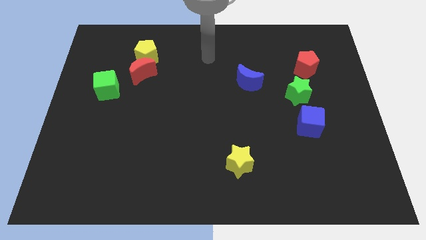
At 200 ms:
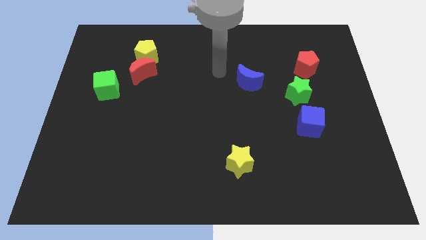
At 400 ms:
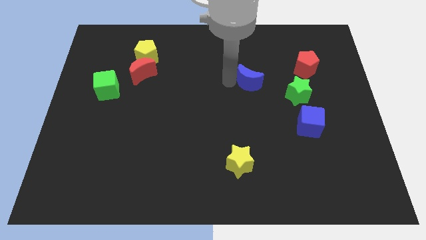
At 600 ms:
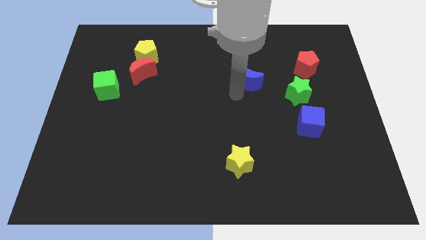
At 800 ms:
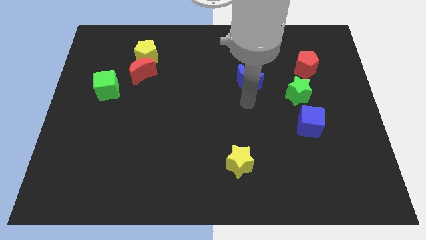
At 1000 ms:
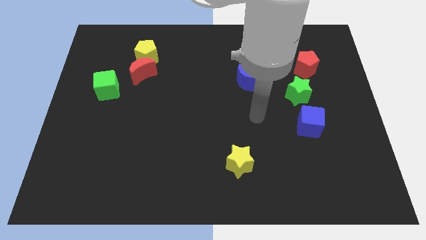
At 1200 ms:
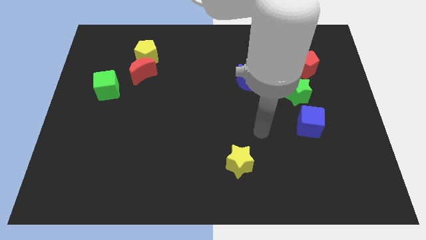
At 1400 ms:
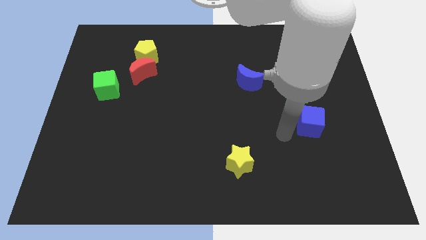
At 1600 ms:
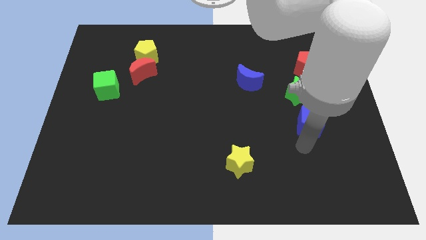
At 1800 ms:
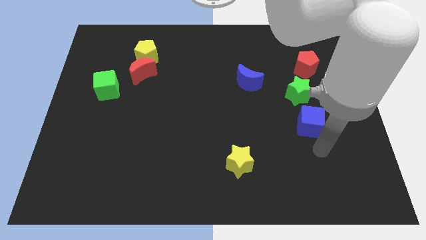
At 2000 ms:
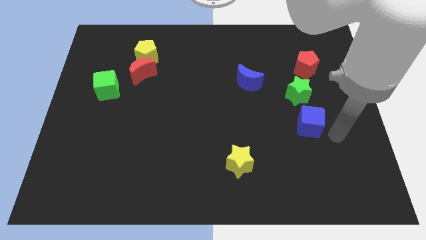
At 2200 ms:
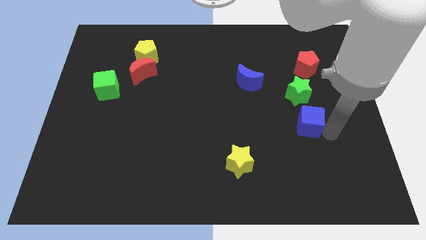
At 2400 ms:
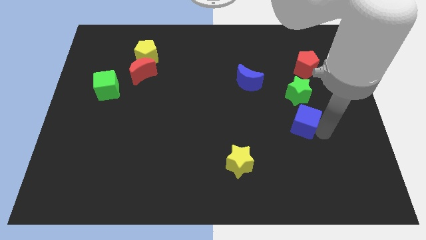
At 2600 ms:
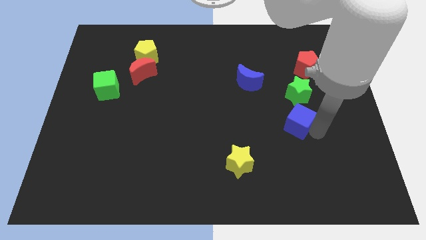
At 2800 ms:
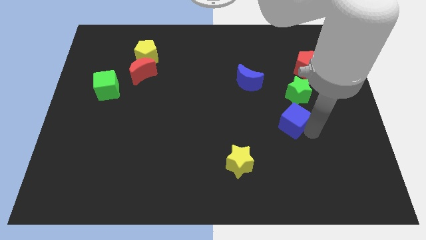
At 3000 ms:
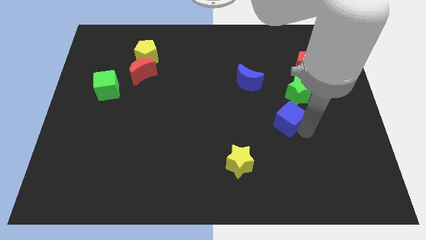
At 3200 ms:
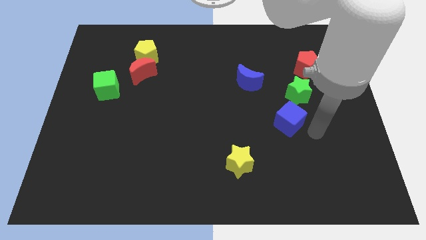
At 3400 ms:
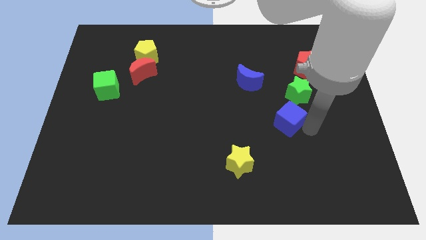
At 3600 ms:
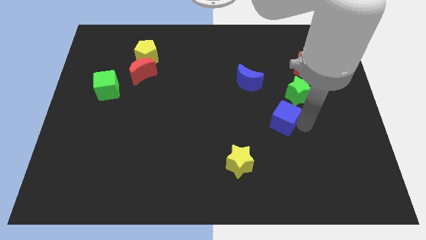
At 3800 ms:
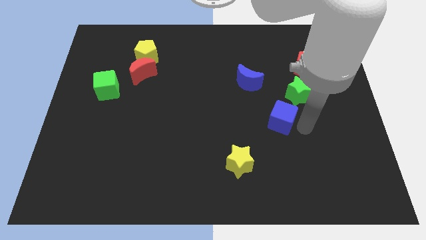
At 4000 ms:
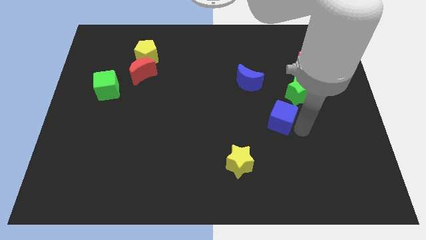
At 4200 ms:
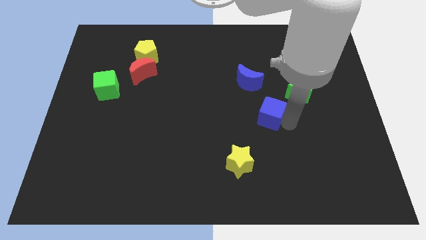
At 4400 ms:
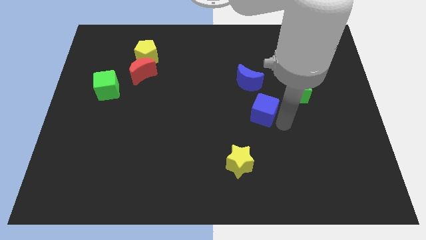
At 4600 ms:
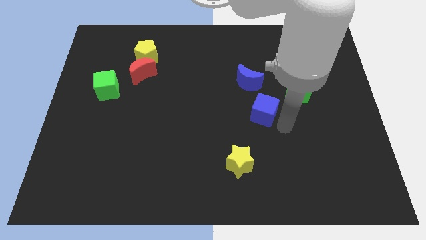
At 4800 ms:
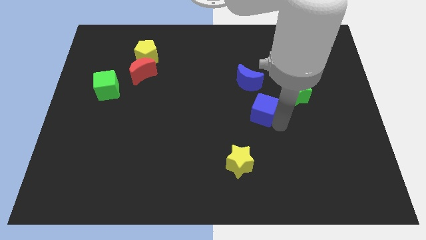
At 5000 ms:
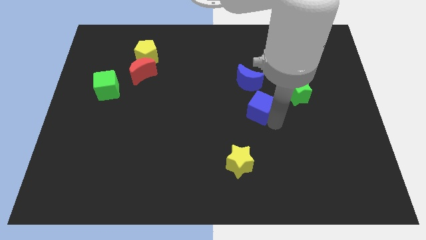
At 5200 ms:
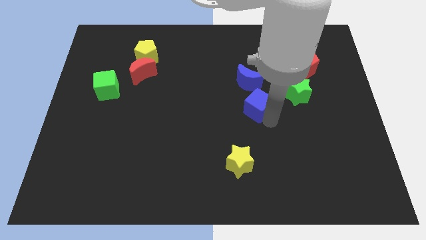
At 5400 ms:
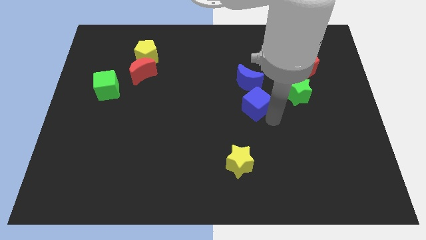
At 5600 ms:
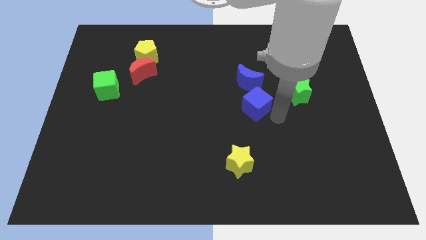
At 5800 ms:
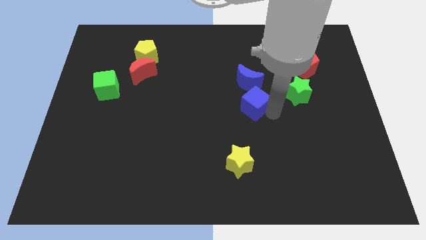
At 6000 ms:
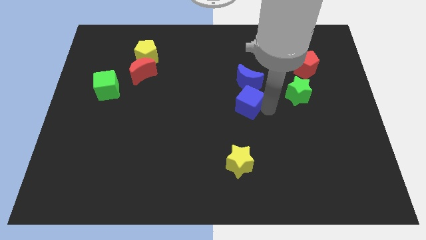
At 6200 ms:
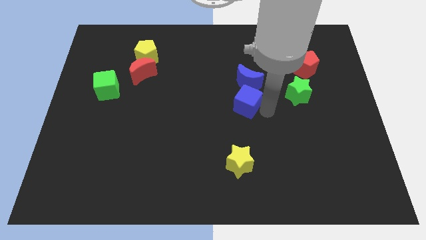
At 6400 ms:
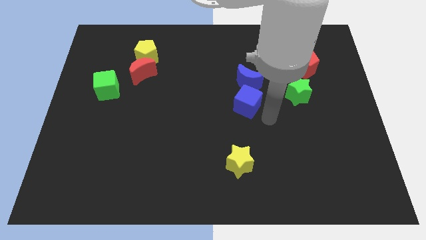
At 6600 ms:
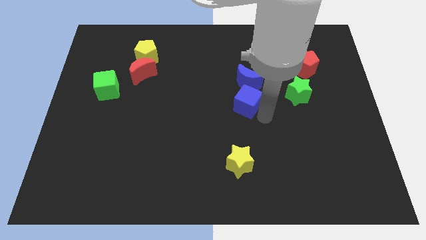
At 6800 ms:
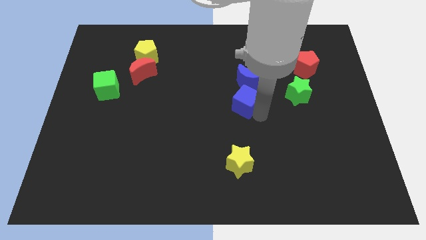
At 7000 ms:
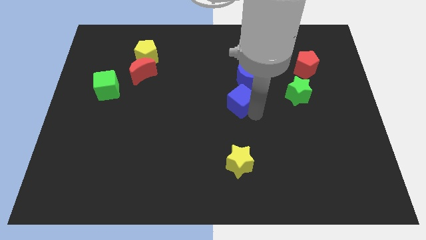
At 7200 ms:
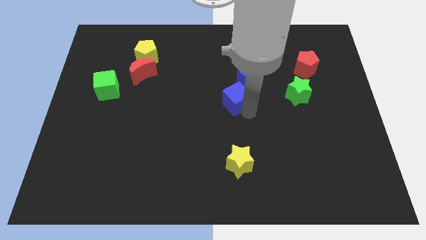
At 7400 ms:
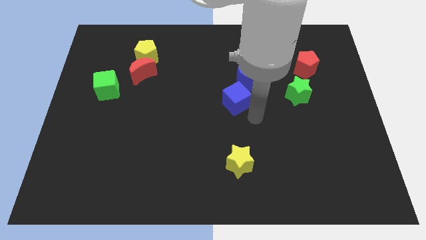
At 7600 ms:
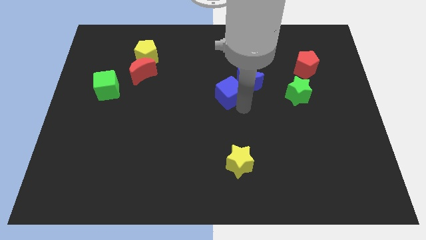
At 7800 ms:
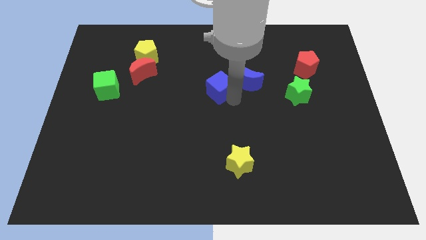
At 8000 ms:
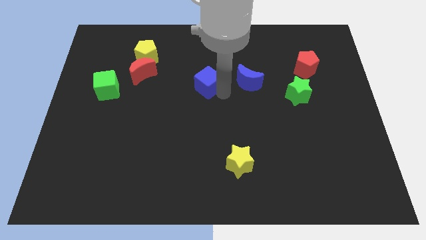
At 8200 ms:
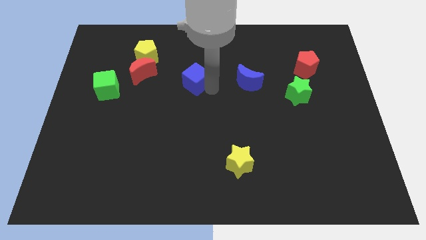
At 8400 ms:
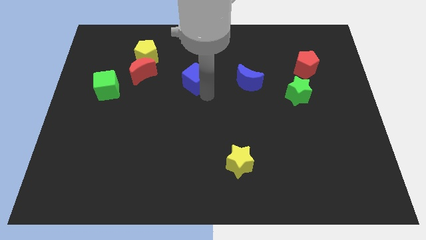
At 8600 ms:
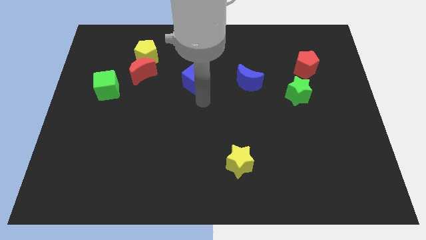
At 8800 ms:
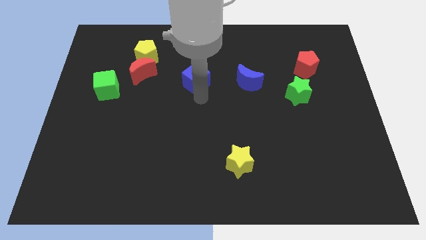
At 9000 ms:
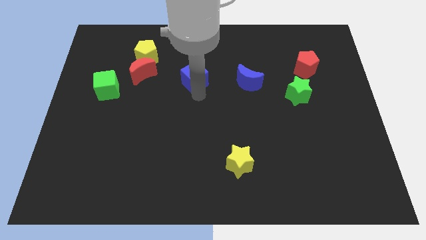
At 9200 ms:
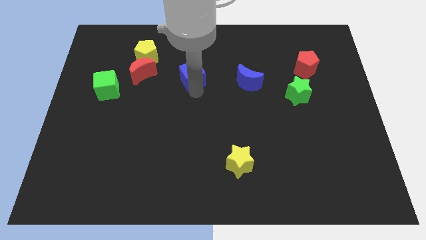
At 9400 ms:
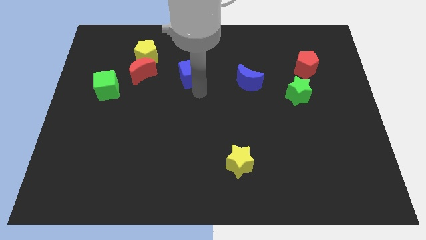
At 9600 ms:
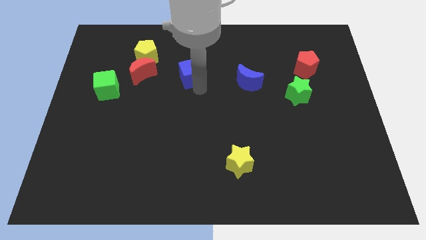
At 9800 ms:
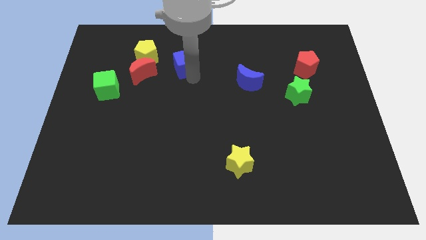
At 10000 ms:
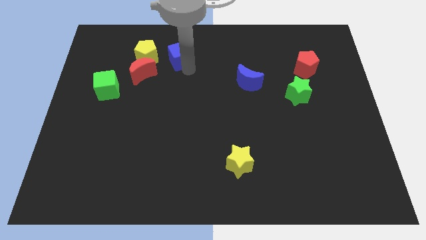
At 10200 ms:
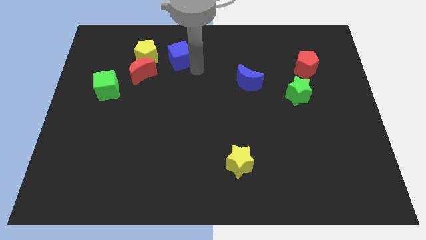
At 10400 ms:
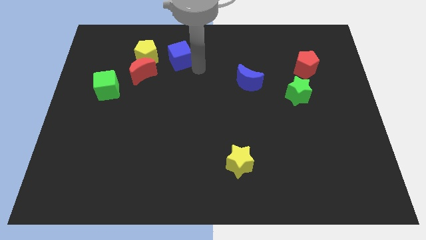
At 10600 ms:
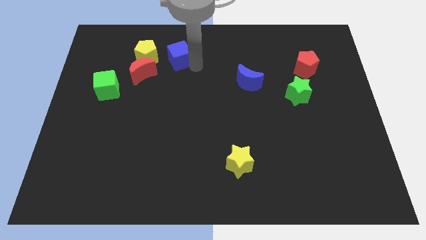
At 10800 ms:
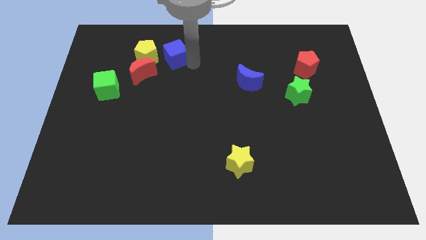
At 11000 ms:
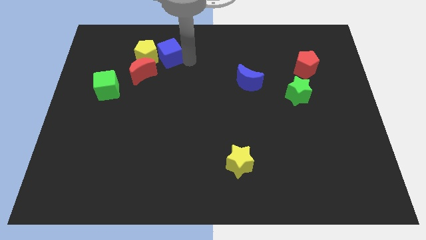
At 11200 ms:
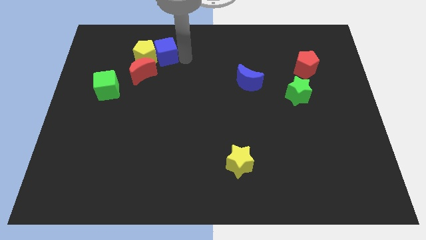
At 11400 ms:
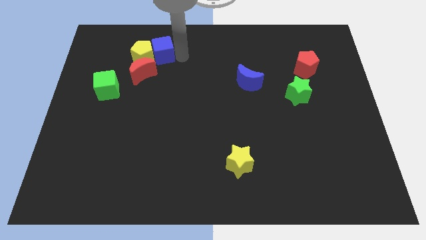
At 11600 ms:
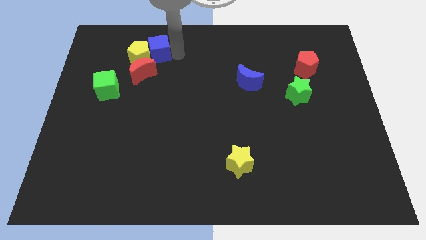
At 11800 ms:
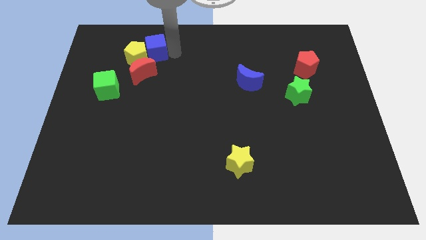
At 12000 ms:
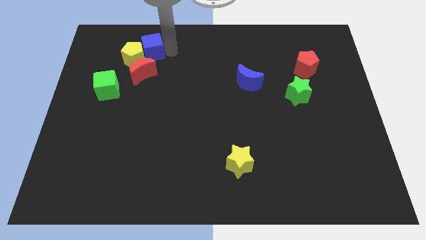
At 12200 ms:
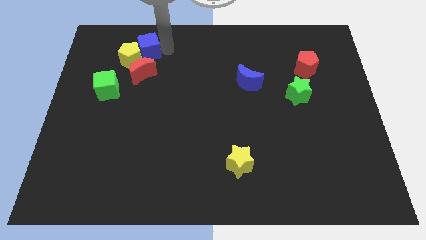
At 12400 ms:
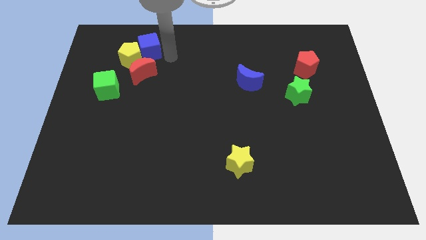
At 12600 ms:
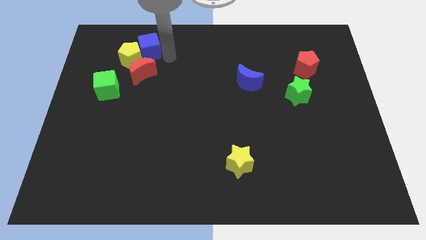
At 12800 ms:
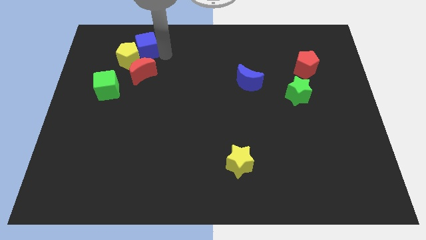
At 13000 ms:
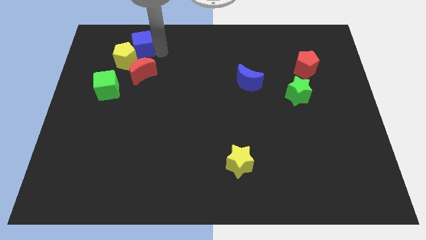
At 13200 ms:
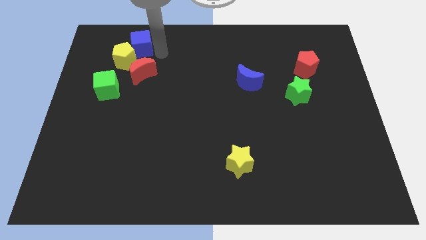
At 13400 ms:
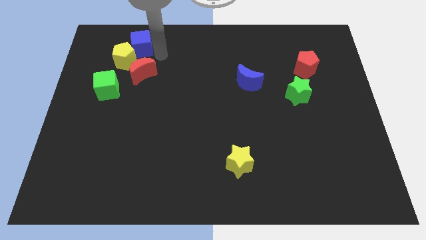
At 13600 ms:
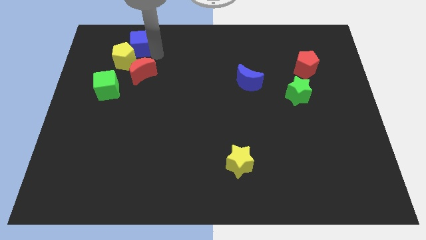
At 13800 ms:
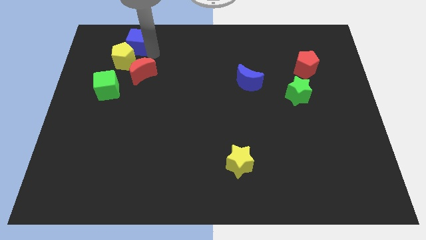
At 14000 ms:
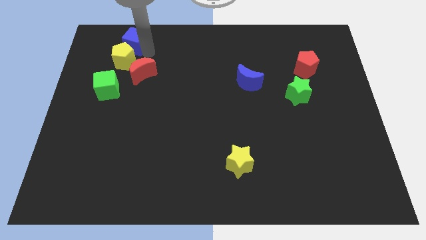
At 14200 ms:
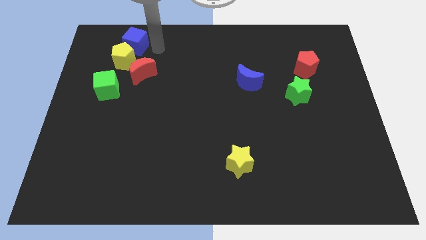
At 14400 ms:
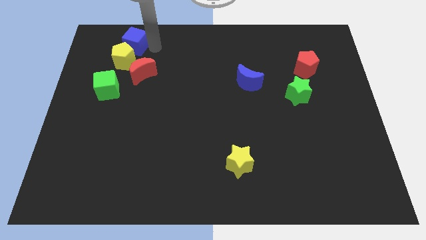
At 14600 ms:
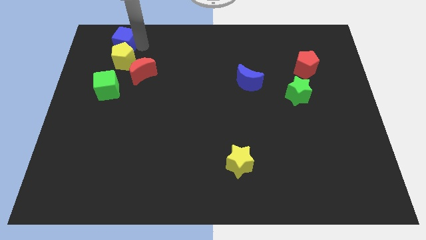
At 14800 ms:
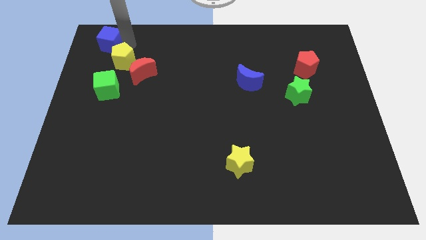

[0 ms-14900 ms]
move the blue cube to the upper left corner
